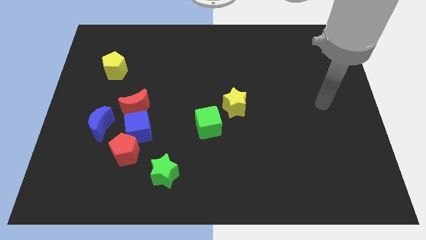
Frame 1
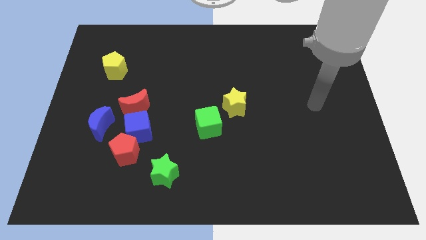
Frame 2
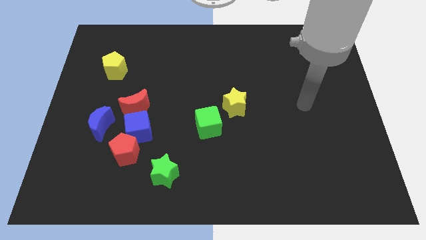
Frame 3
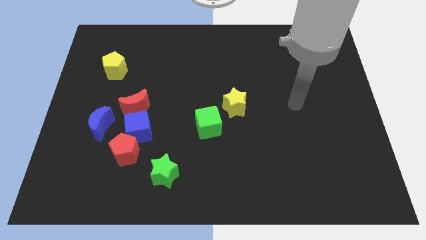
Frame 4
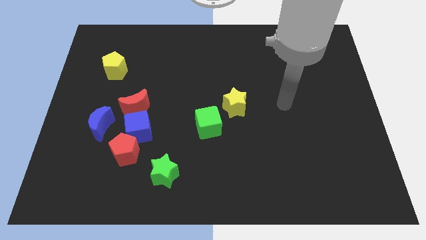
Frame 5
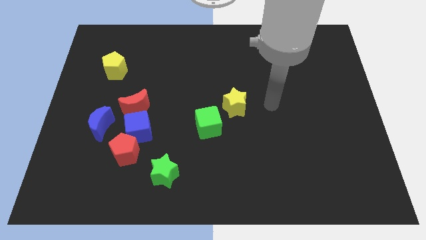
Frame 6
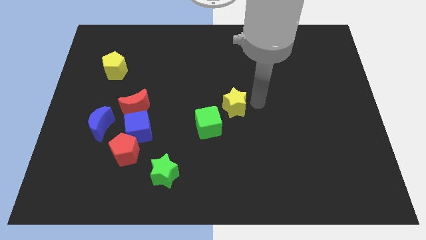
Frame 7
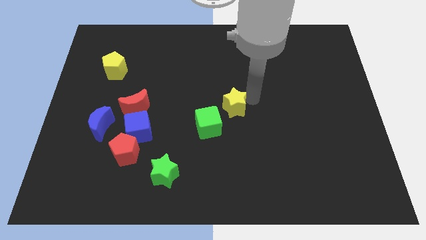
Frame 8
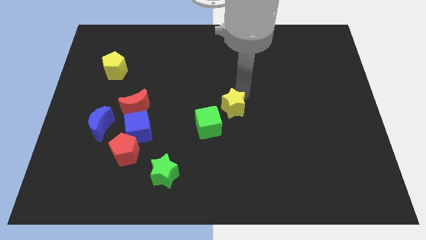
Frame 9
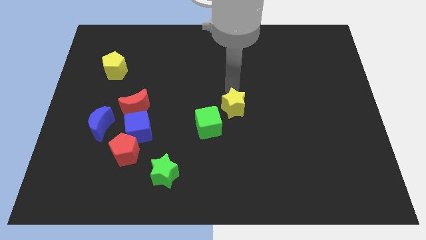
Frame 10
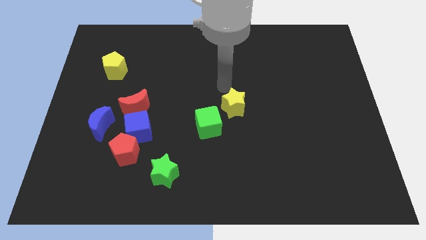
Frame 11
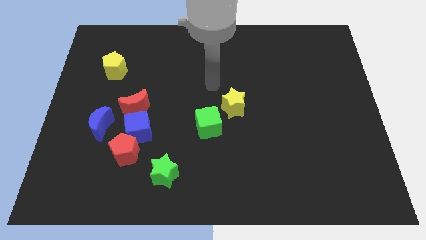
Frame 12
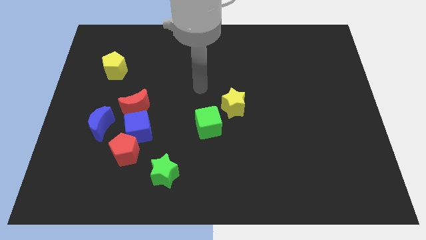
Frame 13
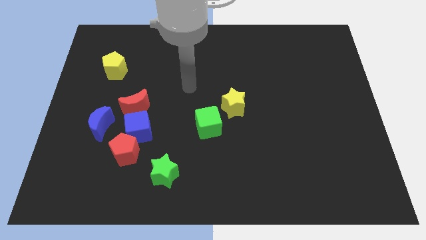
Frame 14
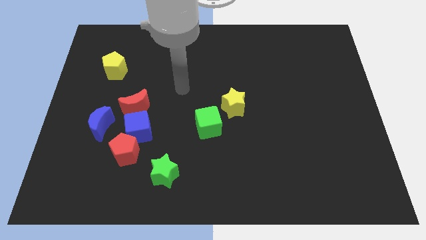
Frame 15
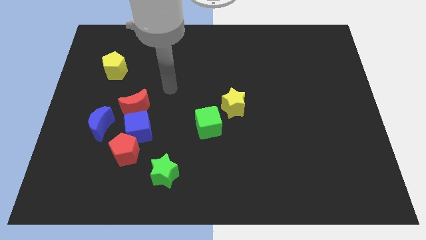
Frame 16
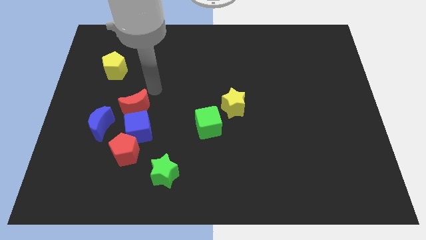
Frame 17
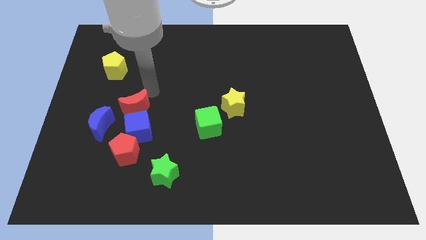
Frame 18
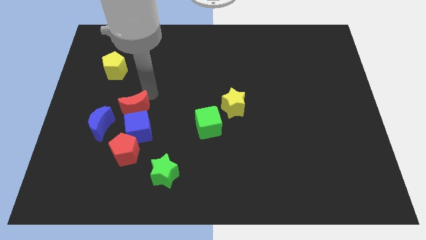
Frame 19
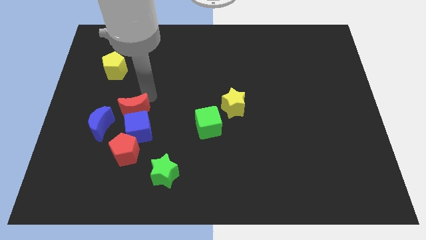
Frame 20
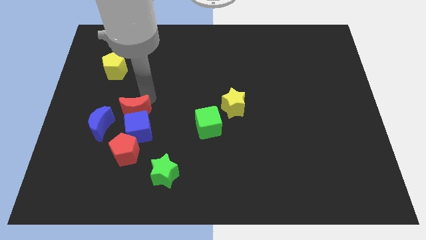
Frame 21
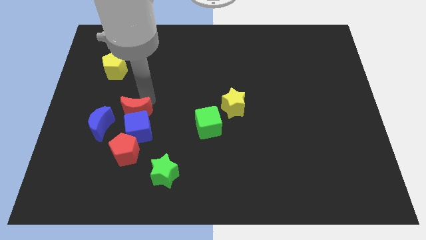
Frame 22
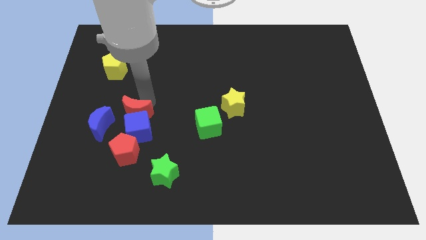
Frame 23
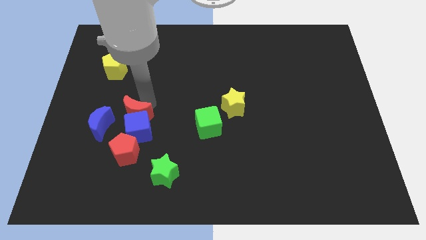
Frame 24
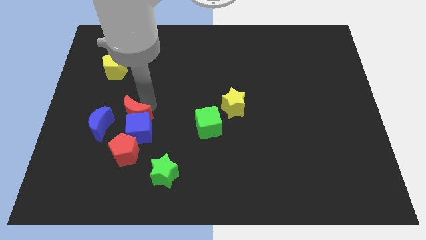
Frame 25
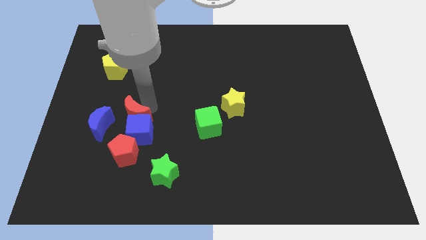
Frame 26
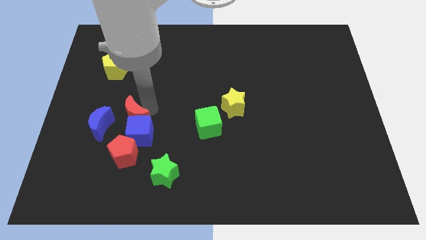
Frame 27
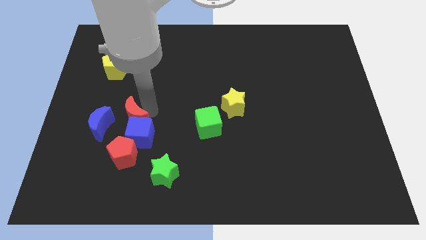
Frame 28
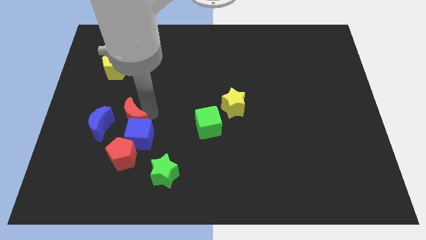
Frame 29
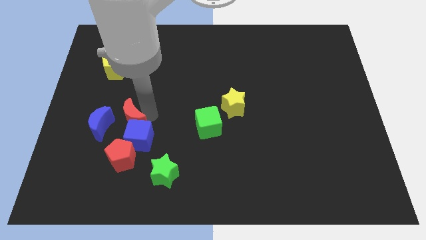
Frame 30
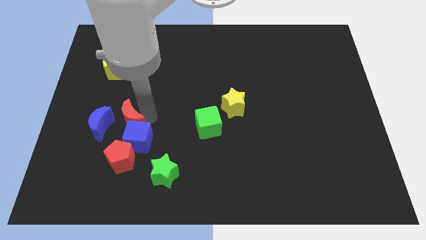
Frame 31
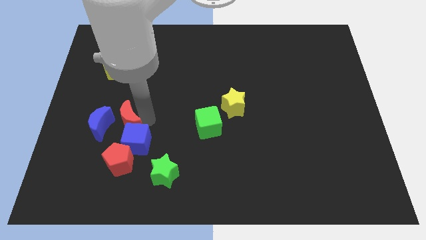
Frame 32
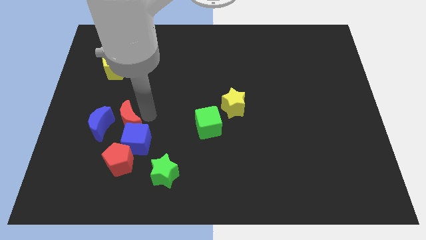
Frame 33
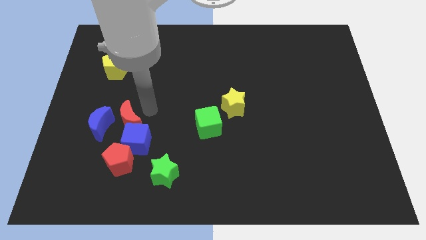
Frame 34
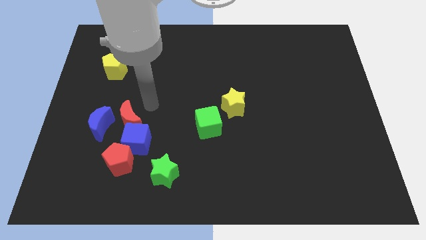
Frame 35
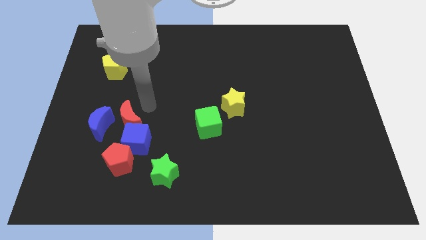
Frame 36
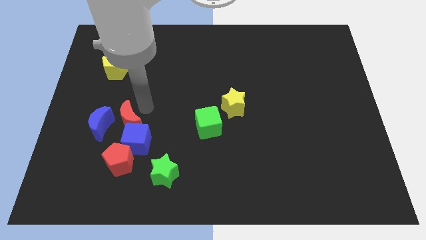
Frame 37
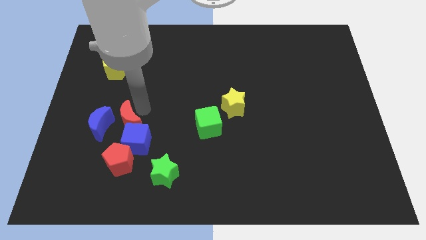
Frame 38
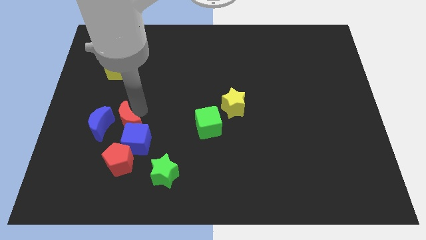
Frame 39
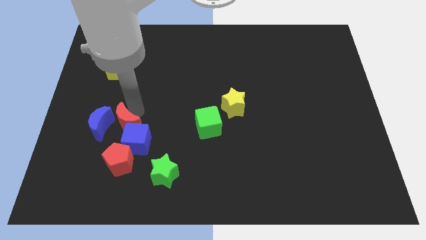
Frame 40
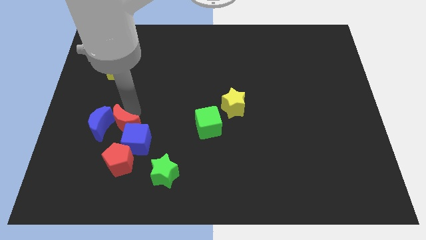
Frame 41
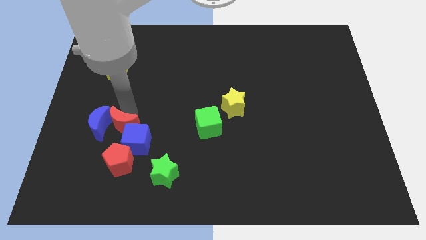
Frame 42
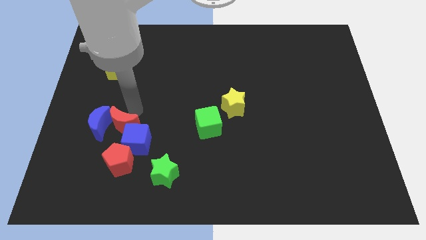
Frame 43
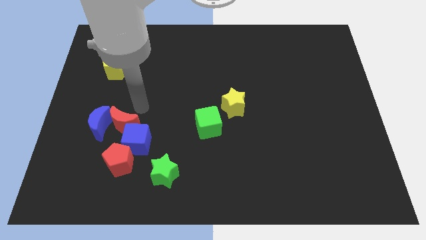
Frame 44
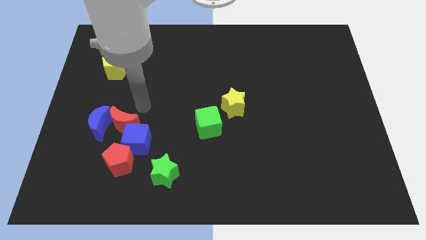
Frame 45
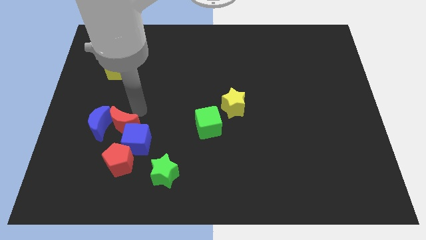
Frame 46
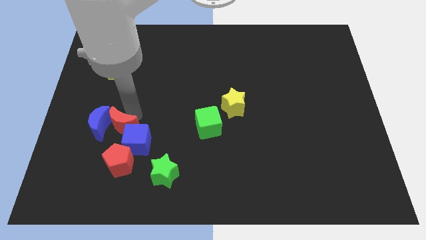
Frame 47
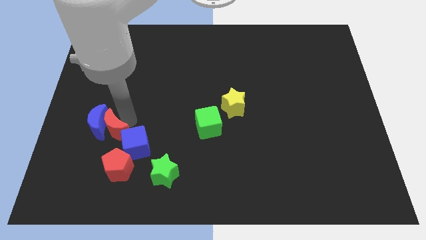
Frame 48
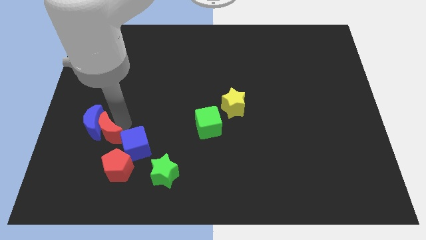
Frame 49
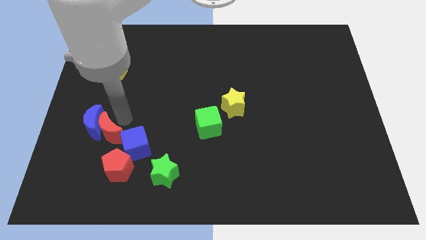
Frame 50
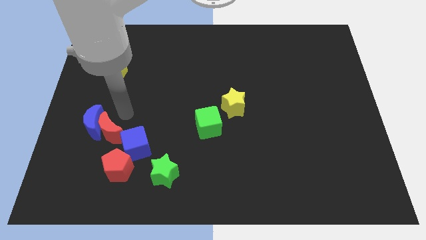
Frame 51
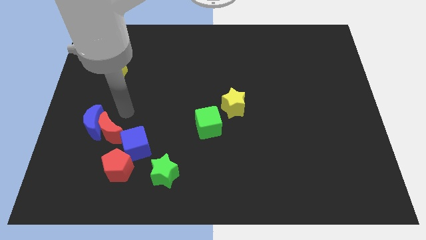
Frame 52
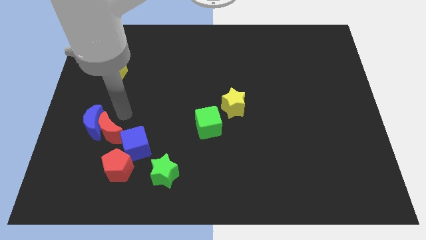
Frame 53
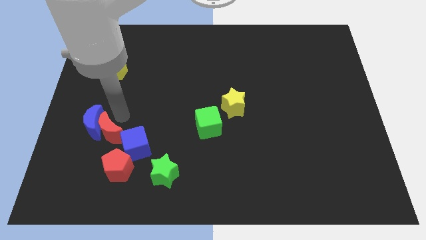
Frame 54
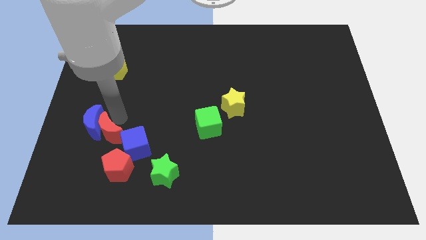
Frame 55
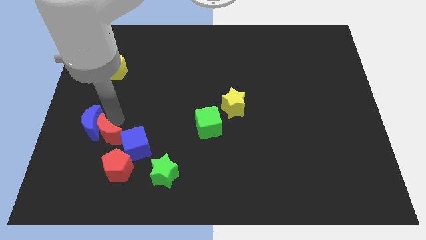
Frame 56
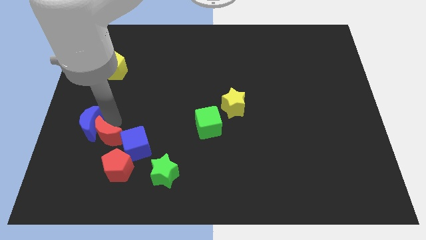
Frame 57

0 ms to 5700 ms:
move the red moon somewhat downwards

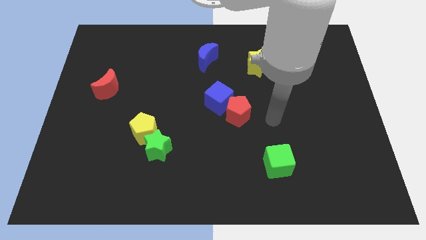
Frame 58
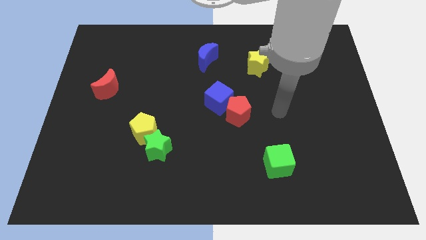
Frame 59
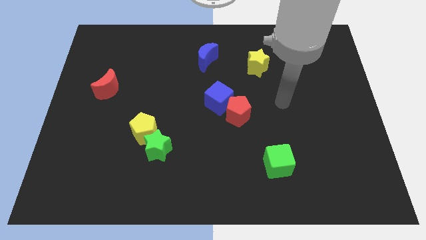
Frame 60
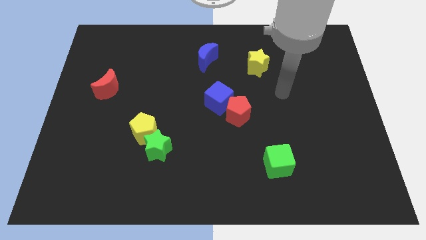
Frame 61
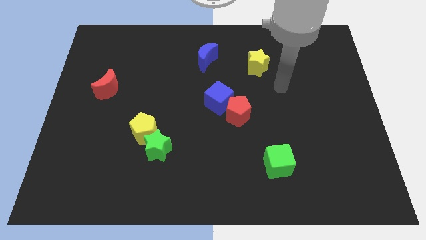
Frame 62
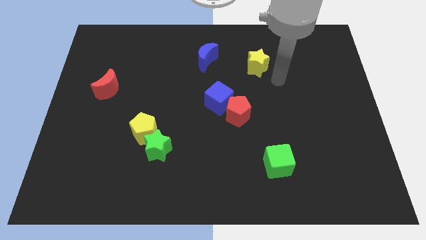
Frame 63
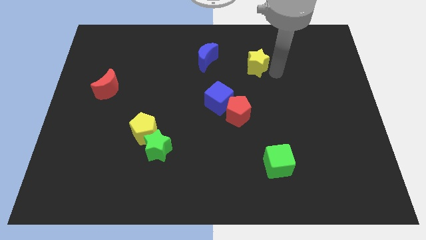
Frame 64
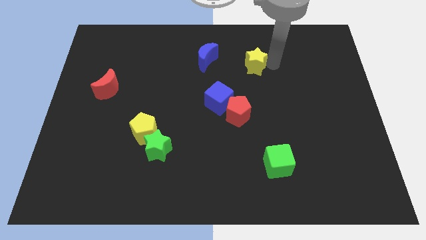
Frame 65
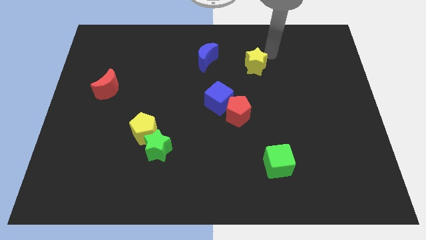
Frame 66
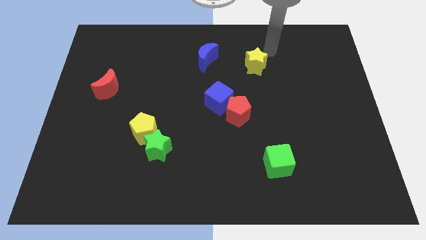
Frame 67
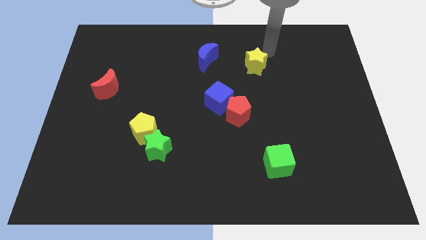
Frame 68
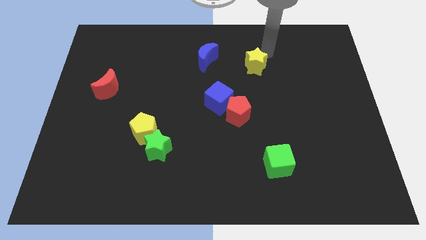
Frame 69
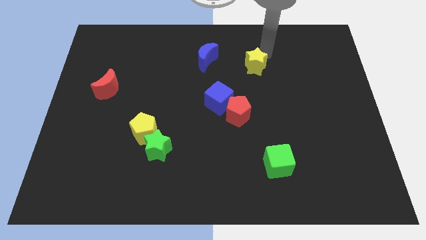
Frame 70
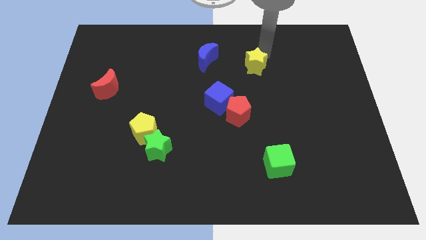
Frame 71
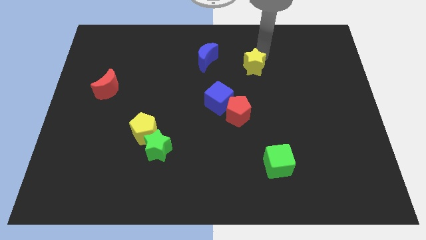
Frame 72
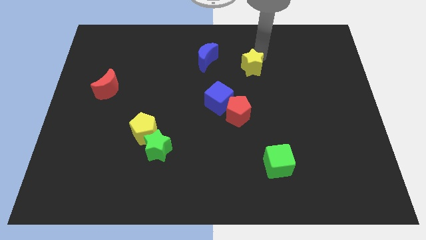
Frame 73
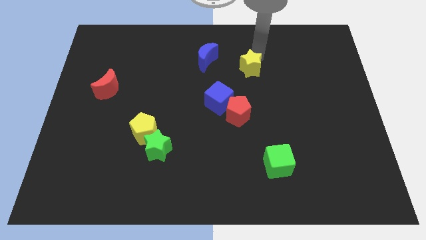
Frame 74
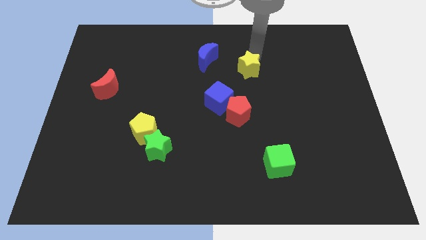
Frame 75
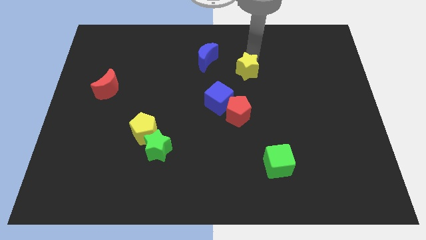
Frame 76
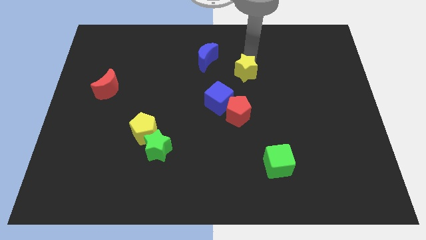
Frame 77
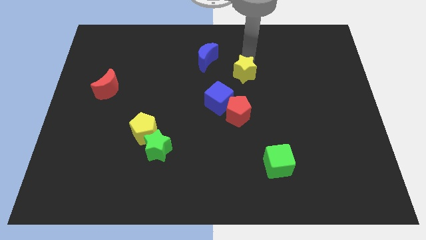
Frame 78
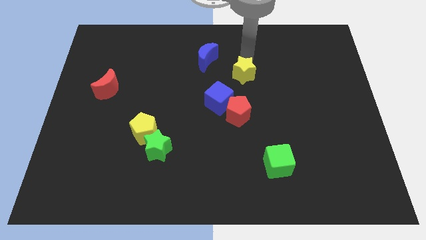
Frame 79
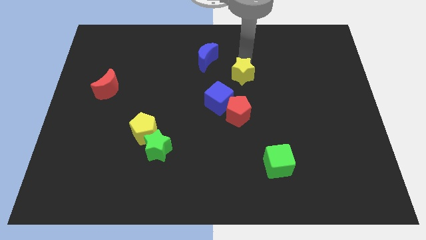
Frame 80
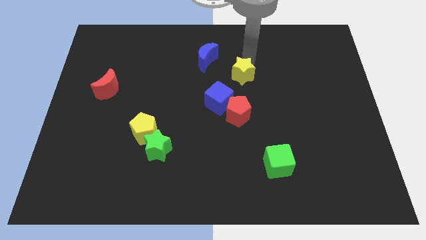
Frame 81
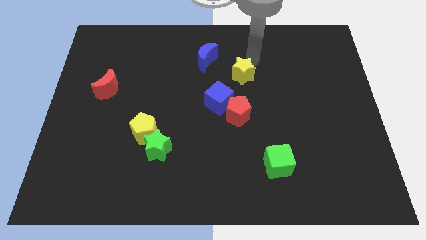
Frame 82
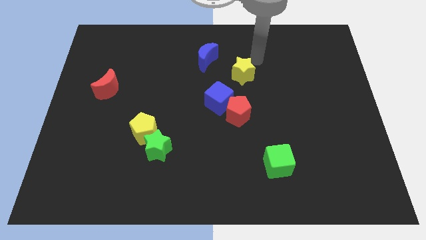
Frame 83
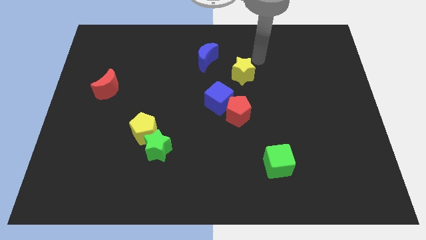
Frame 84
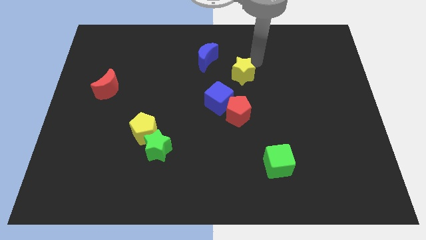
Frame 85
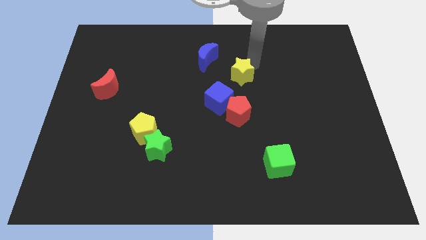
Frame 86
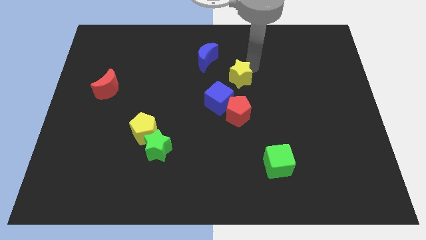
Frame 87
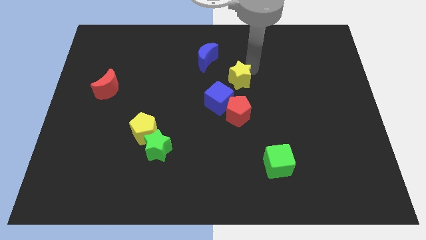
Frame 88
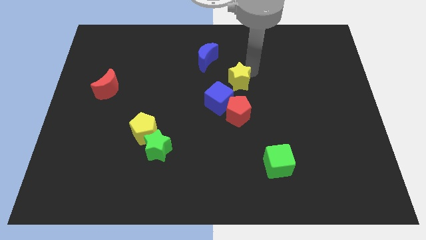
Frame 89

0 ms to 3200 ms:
push the yellow star somewhat diagonally down and to the left
